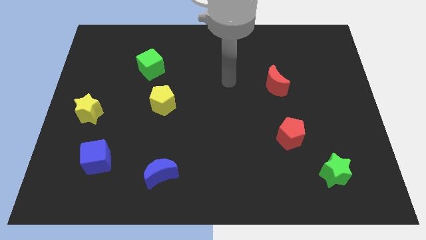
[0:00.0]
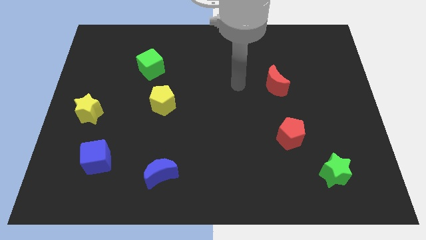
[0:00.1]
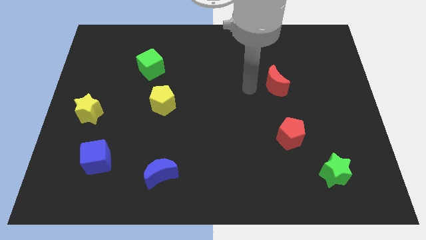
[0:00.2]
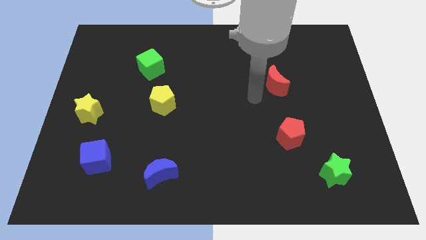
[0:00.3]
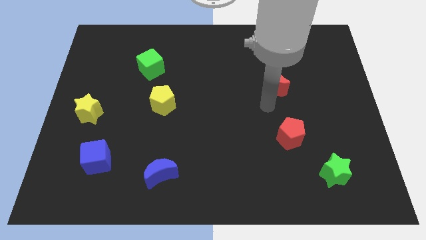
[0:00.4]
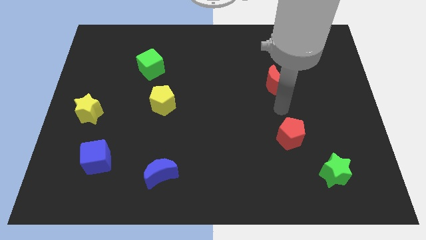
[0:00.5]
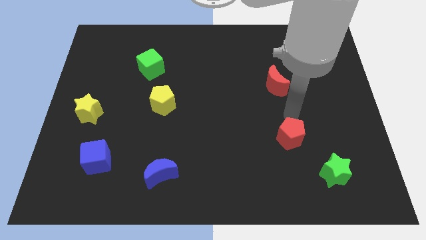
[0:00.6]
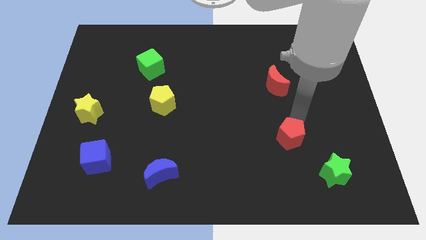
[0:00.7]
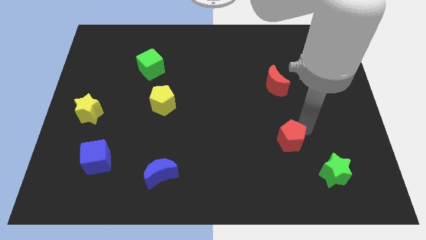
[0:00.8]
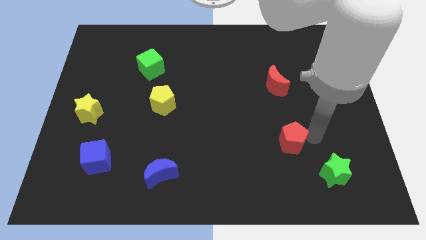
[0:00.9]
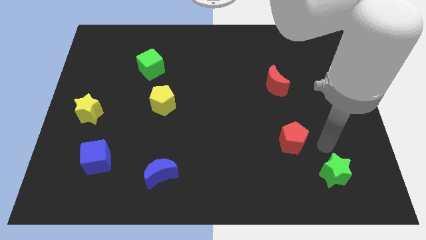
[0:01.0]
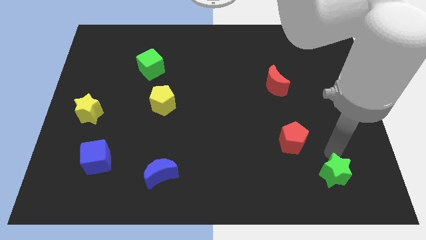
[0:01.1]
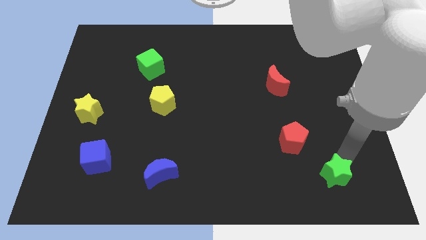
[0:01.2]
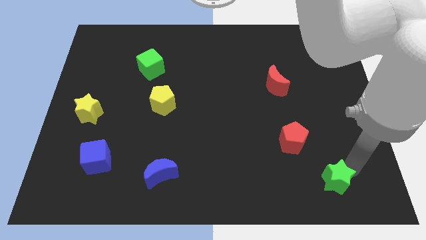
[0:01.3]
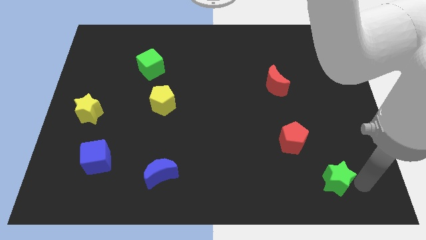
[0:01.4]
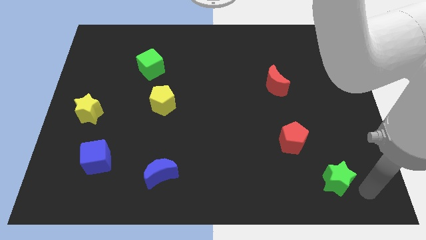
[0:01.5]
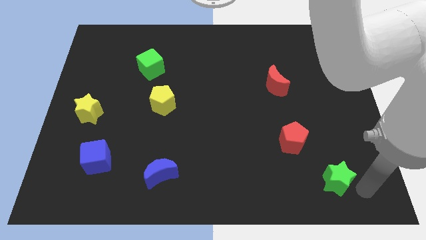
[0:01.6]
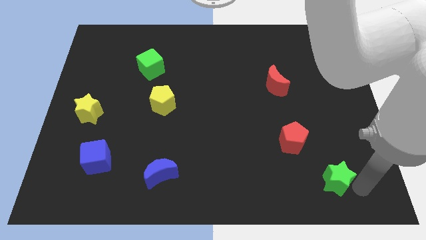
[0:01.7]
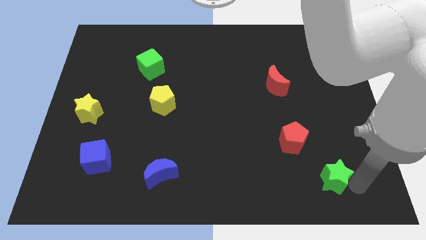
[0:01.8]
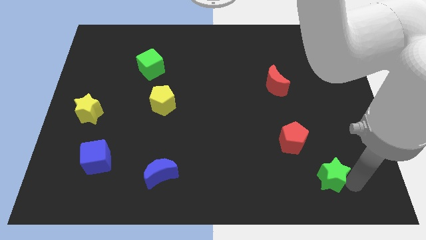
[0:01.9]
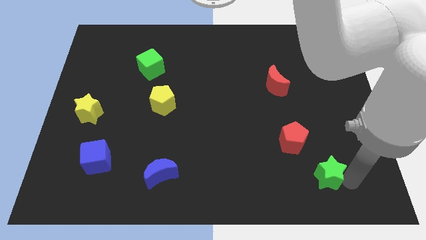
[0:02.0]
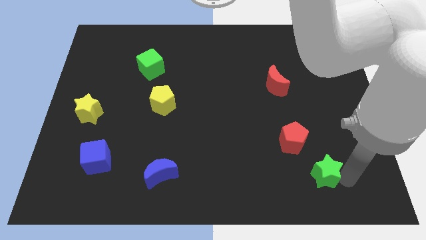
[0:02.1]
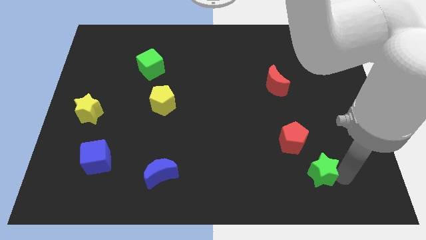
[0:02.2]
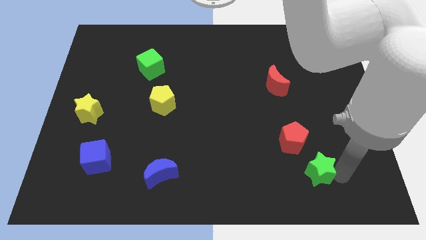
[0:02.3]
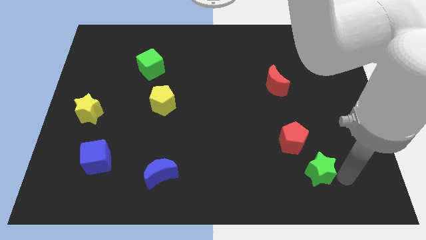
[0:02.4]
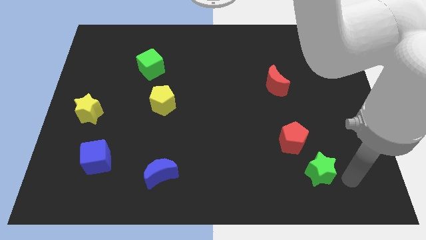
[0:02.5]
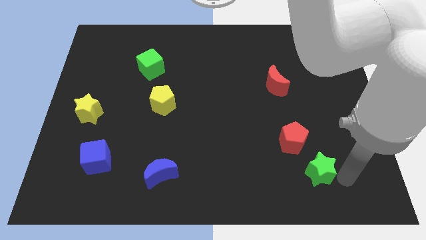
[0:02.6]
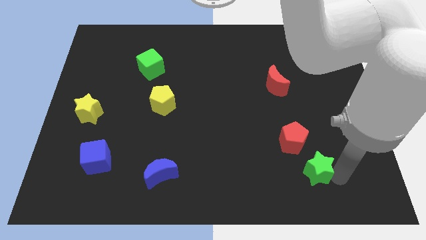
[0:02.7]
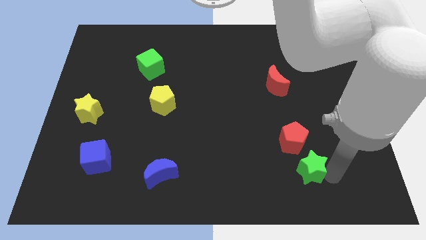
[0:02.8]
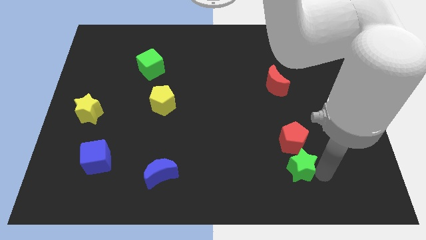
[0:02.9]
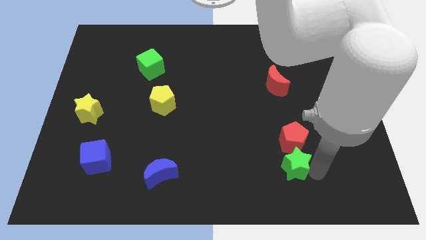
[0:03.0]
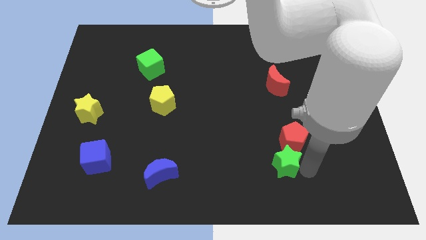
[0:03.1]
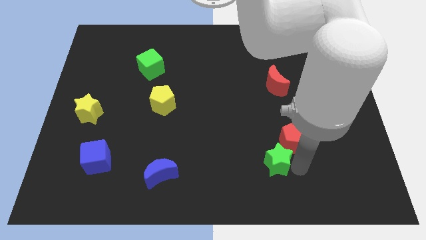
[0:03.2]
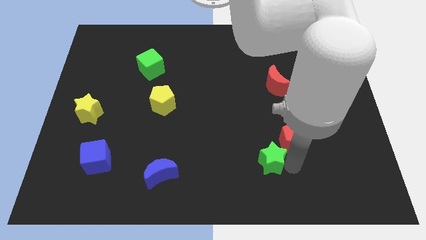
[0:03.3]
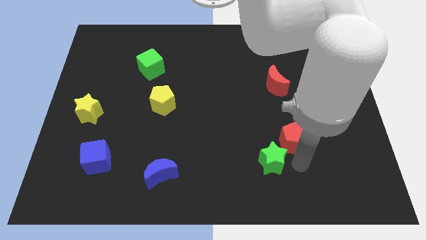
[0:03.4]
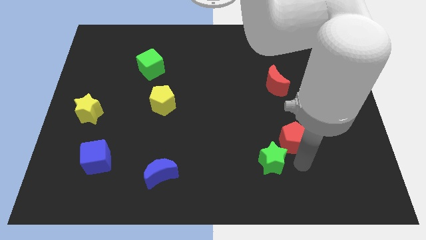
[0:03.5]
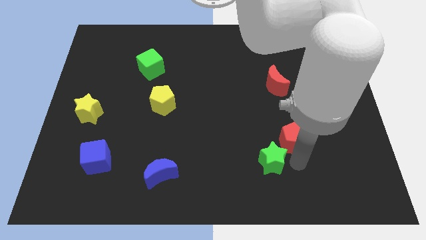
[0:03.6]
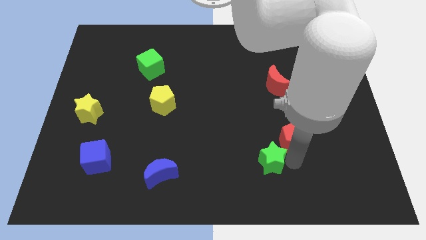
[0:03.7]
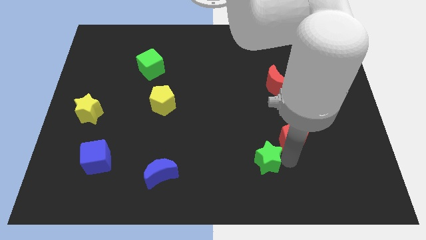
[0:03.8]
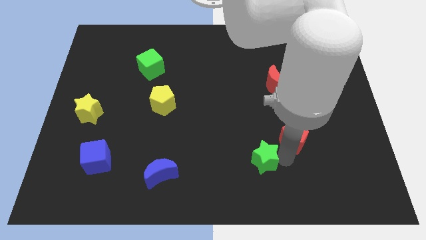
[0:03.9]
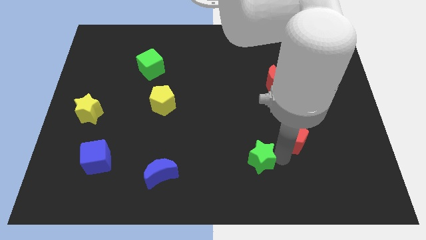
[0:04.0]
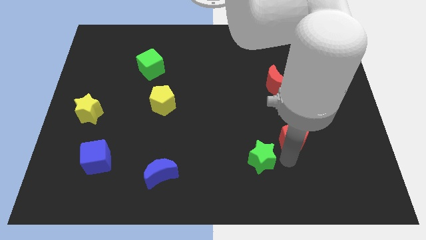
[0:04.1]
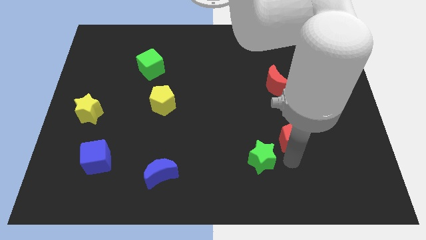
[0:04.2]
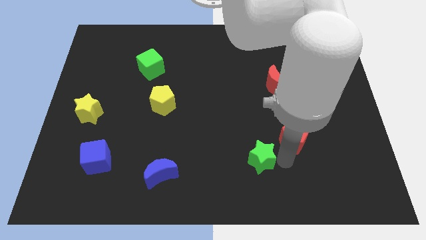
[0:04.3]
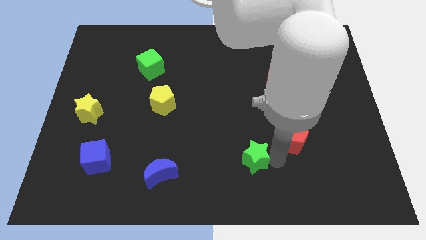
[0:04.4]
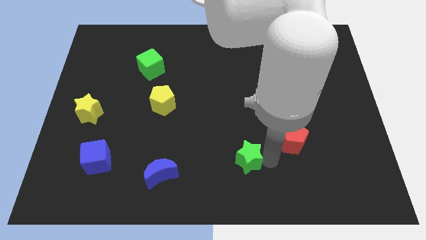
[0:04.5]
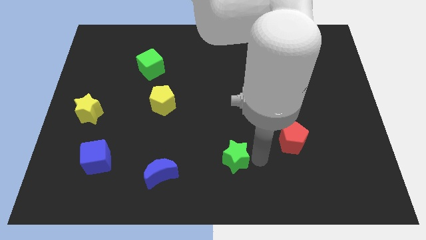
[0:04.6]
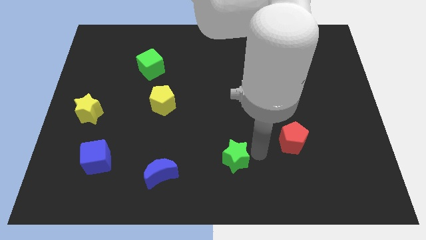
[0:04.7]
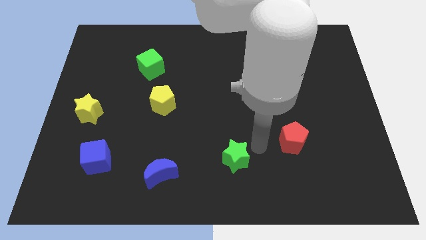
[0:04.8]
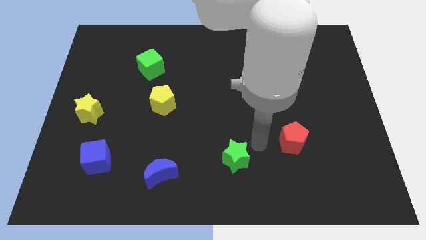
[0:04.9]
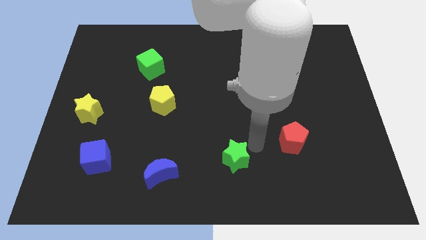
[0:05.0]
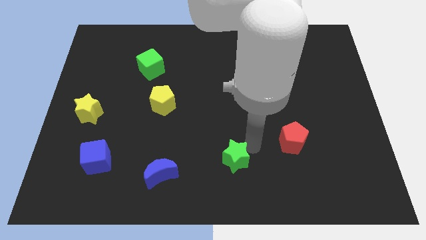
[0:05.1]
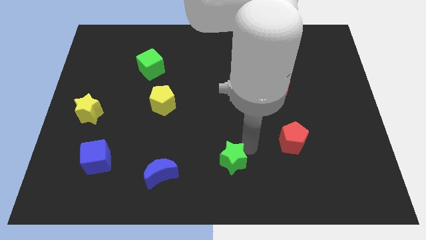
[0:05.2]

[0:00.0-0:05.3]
slide the green star to the right side of the blue moon

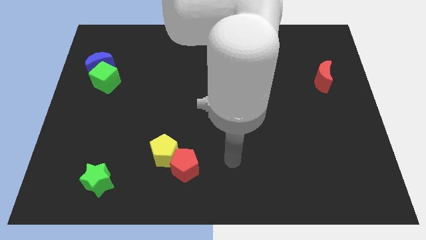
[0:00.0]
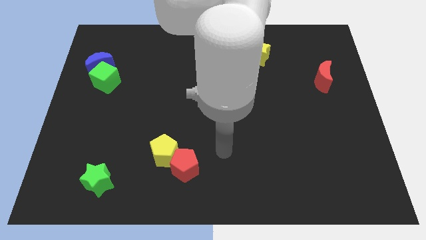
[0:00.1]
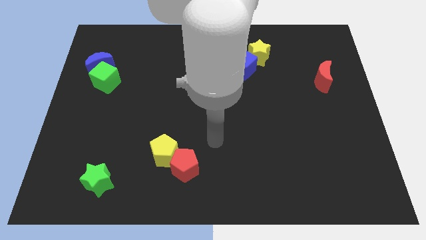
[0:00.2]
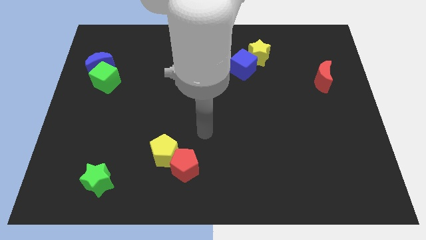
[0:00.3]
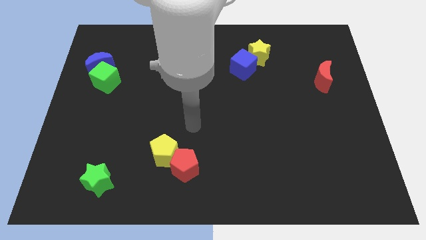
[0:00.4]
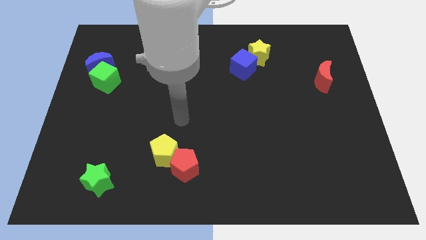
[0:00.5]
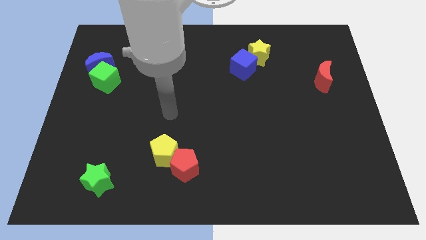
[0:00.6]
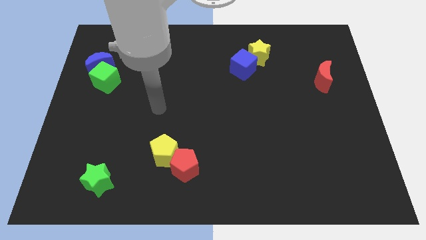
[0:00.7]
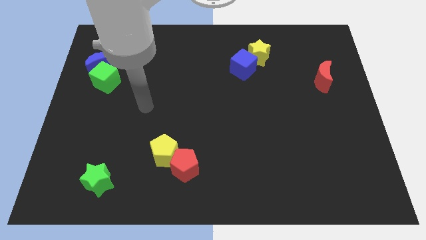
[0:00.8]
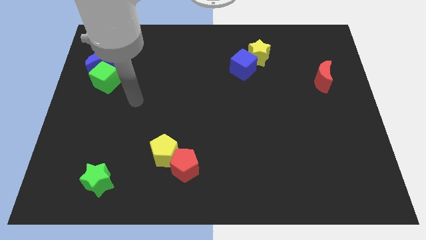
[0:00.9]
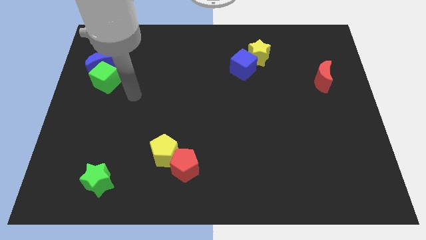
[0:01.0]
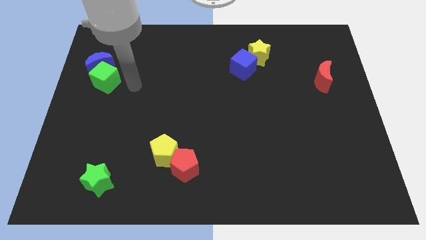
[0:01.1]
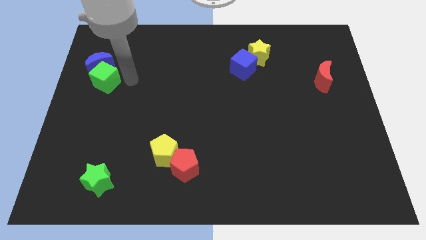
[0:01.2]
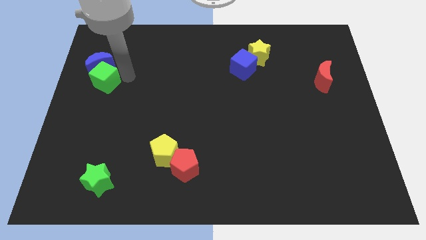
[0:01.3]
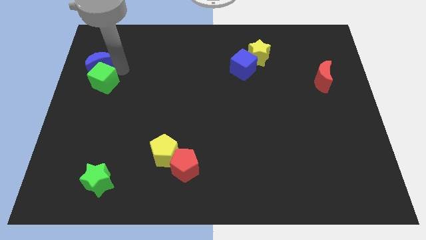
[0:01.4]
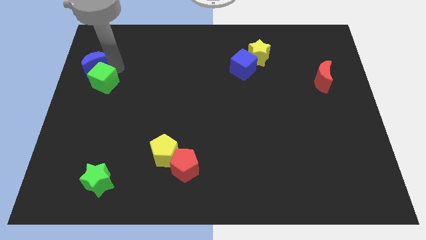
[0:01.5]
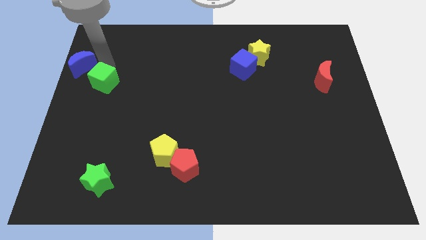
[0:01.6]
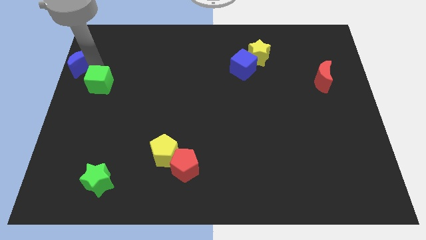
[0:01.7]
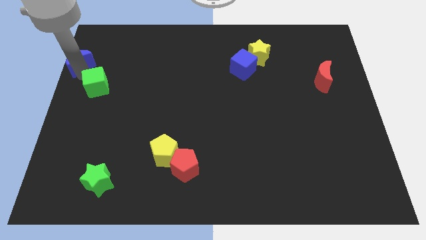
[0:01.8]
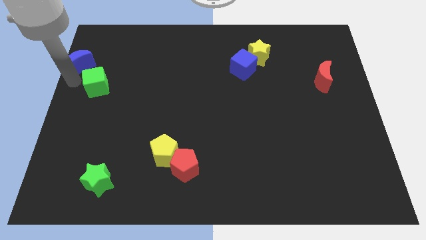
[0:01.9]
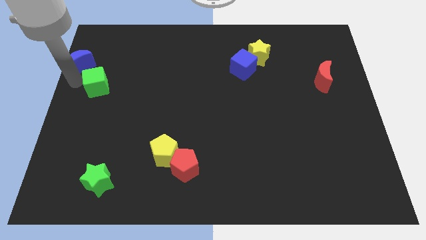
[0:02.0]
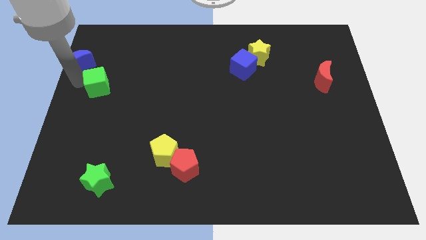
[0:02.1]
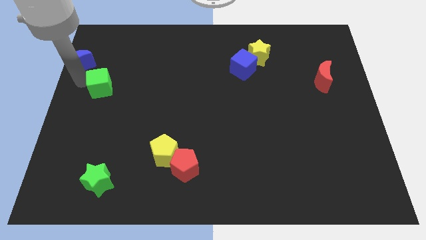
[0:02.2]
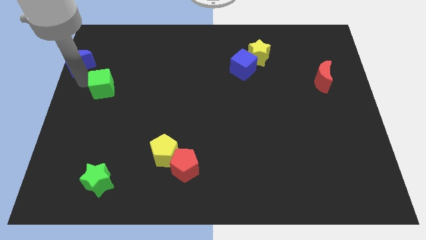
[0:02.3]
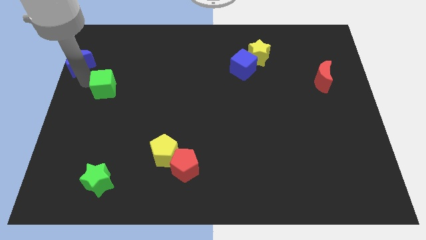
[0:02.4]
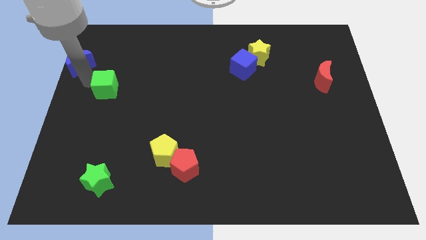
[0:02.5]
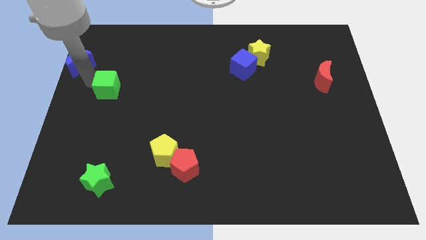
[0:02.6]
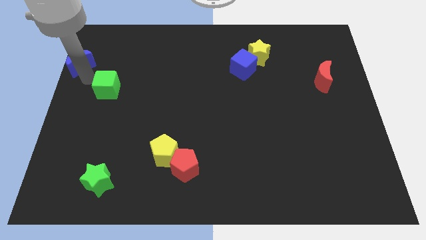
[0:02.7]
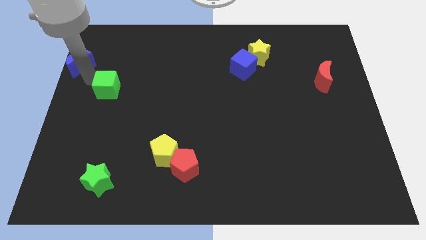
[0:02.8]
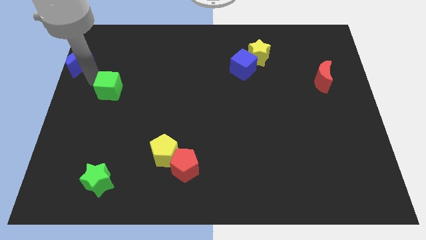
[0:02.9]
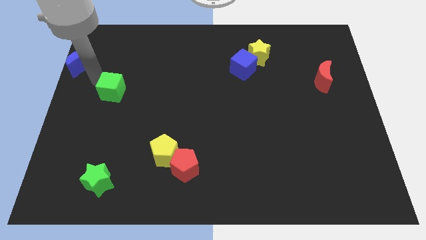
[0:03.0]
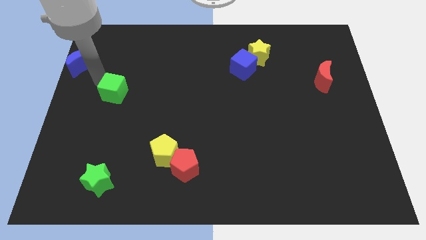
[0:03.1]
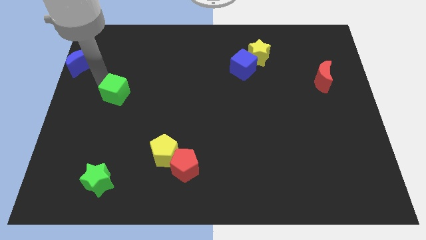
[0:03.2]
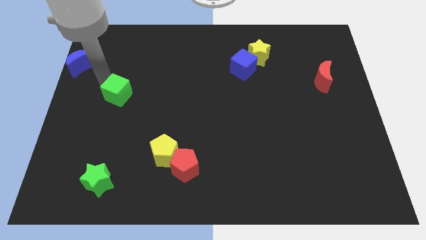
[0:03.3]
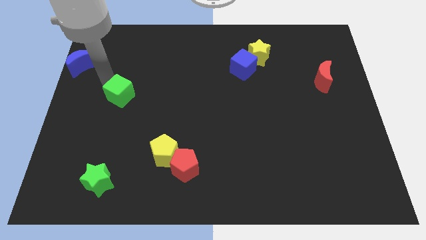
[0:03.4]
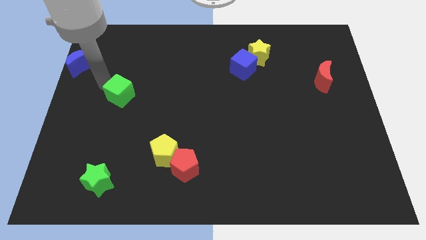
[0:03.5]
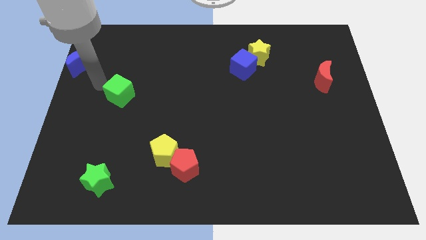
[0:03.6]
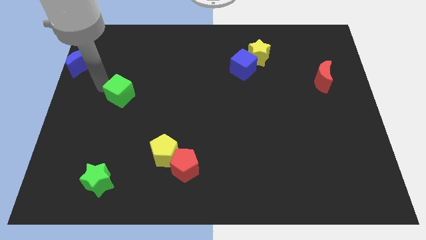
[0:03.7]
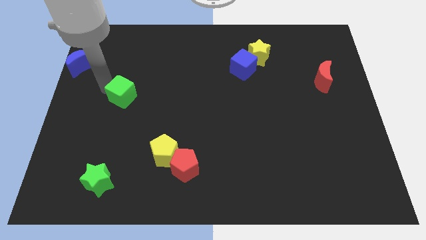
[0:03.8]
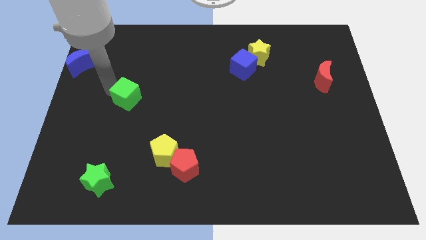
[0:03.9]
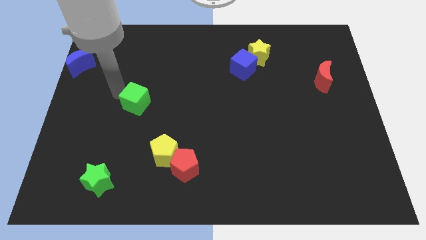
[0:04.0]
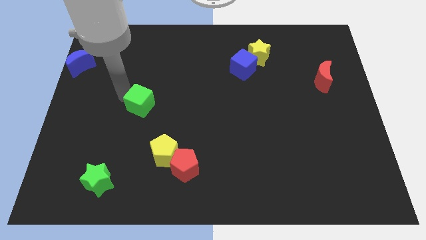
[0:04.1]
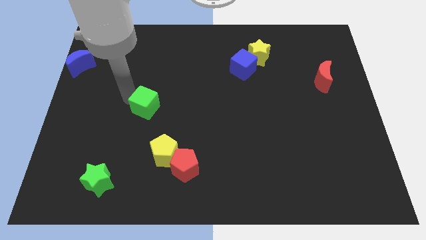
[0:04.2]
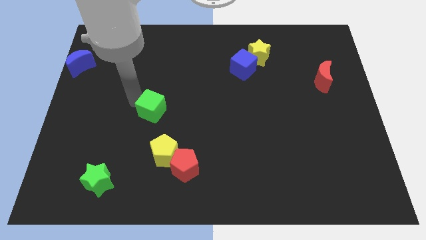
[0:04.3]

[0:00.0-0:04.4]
put the green cube above the yellow pentagon
